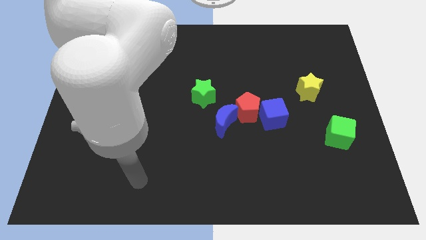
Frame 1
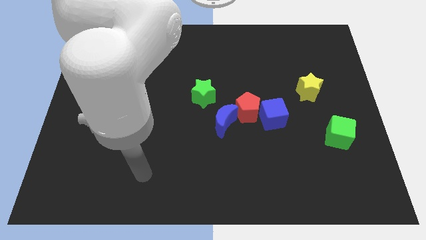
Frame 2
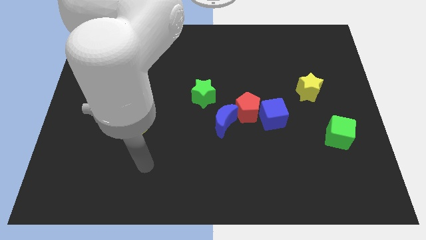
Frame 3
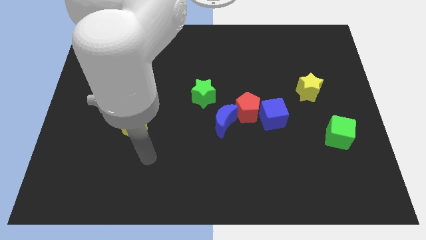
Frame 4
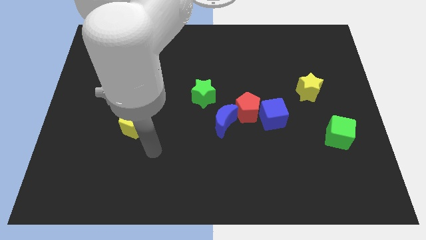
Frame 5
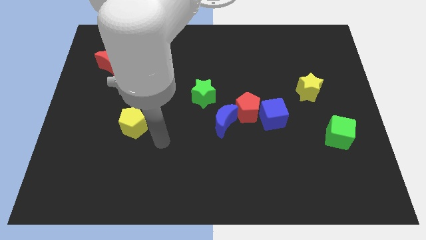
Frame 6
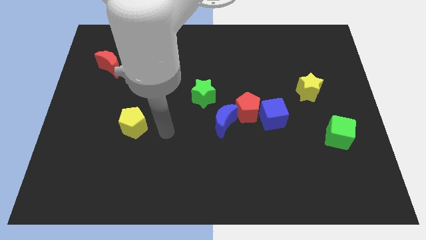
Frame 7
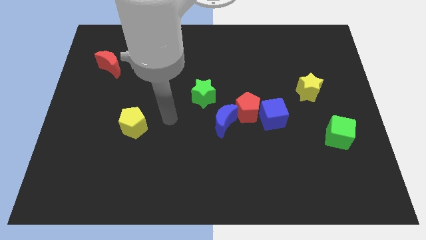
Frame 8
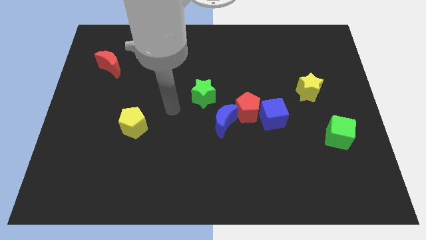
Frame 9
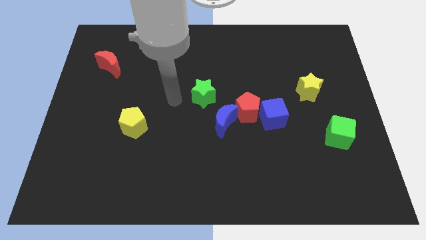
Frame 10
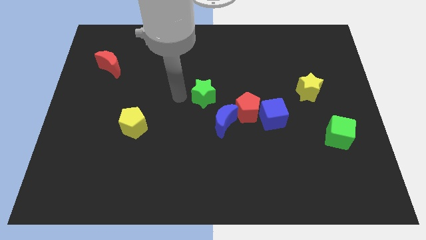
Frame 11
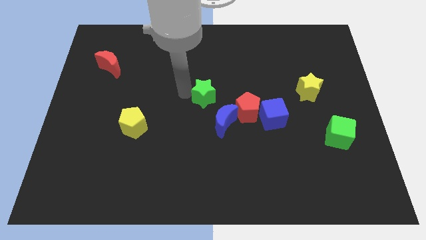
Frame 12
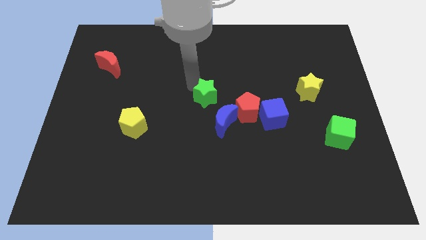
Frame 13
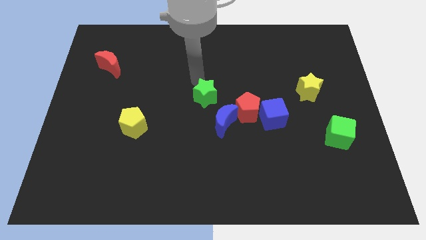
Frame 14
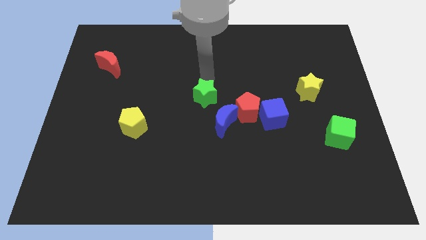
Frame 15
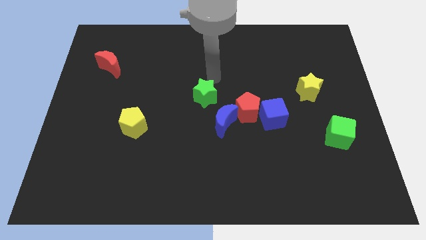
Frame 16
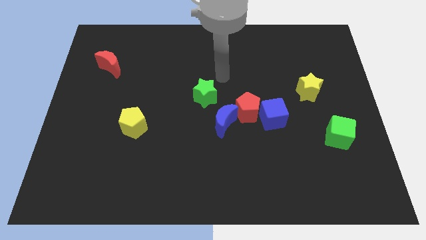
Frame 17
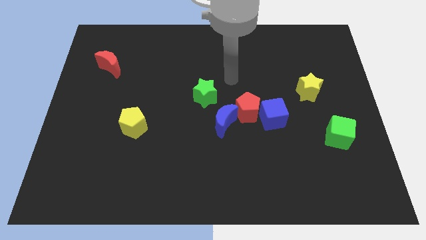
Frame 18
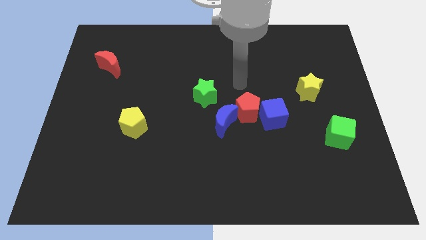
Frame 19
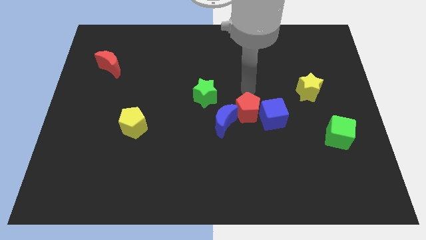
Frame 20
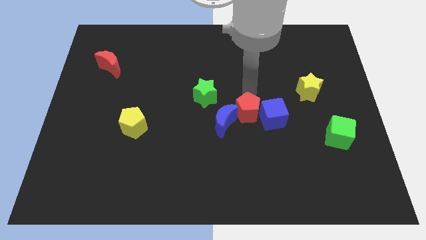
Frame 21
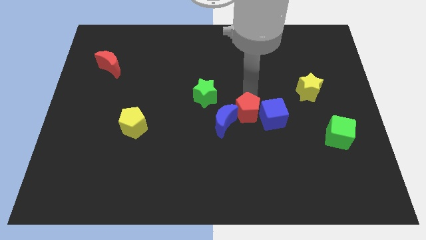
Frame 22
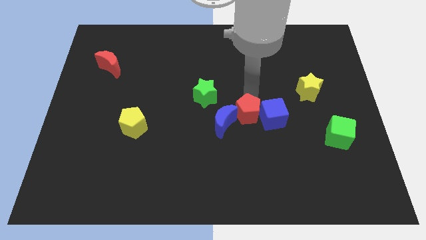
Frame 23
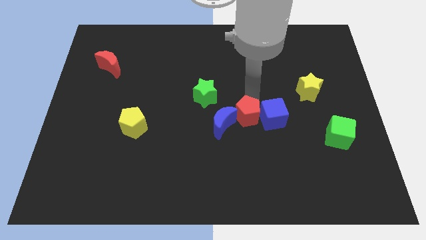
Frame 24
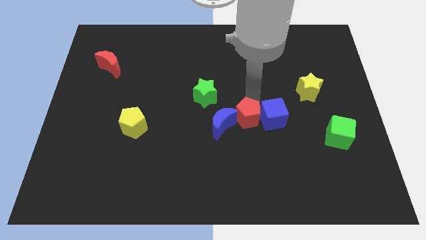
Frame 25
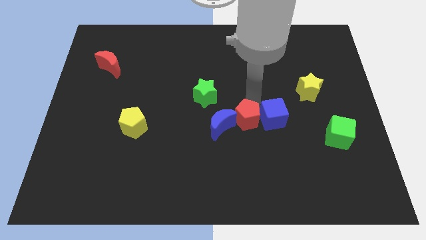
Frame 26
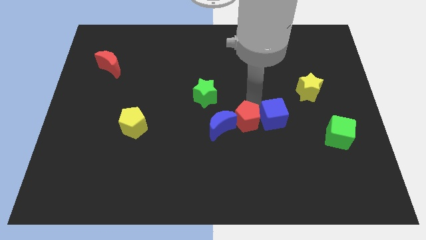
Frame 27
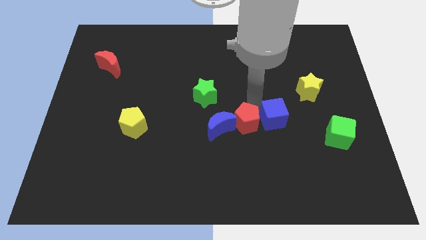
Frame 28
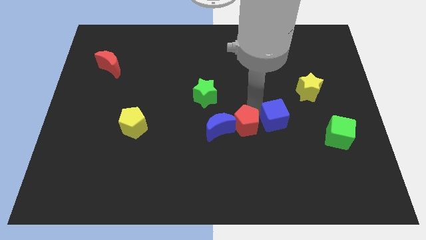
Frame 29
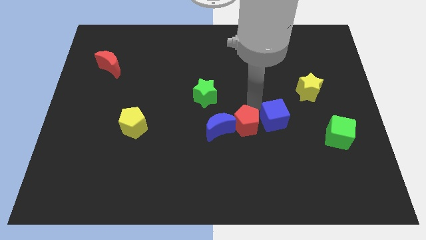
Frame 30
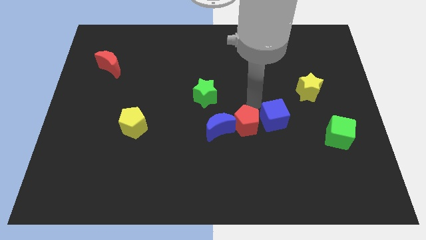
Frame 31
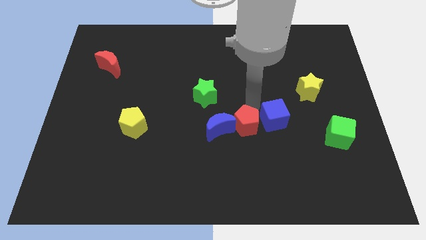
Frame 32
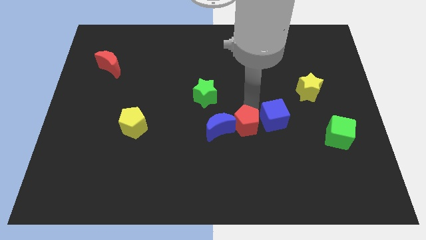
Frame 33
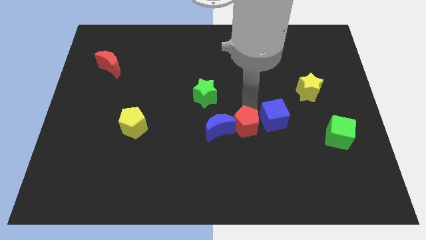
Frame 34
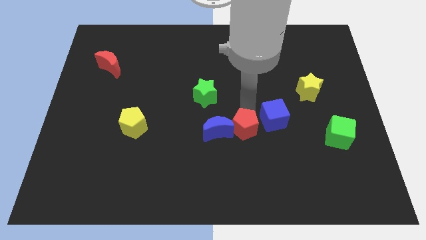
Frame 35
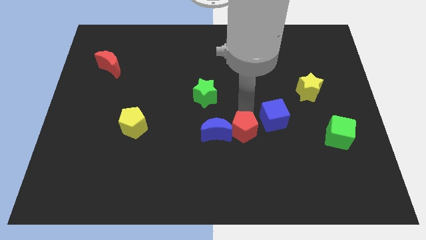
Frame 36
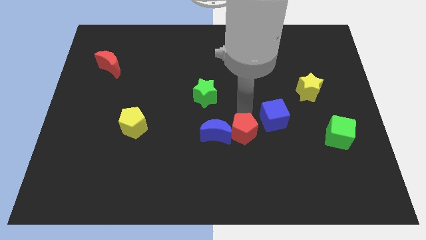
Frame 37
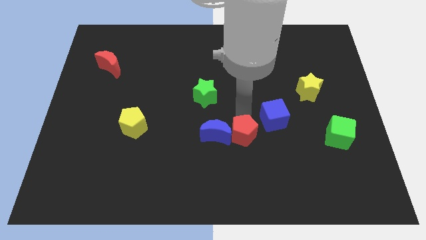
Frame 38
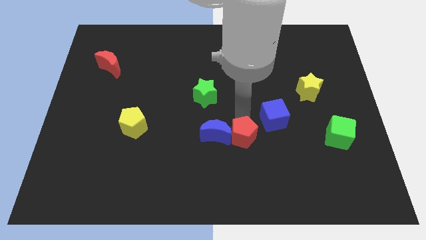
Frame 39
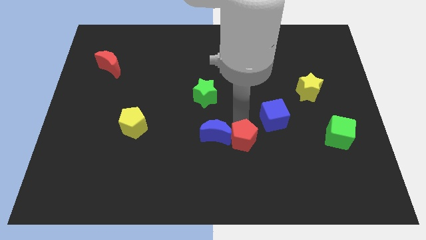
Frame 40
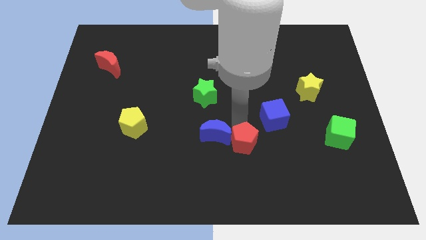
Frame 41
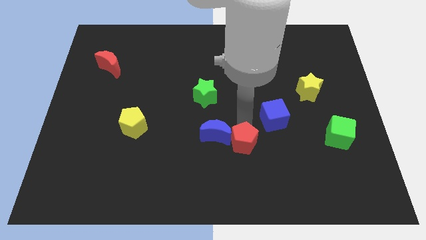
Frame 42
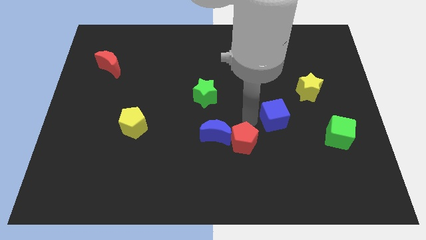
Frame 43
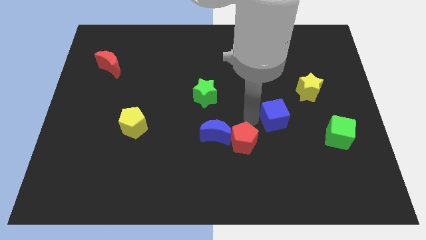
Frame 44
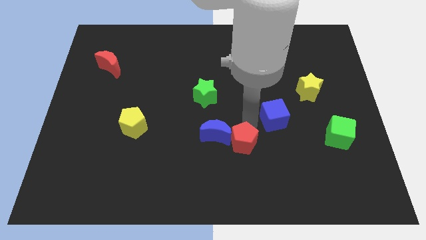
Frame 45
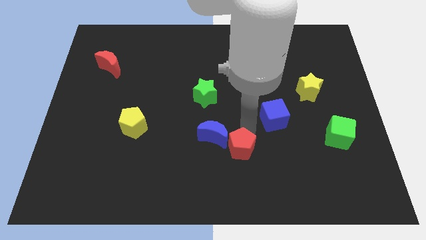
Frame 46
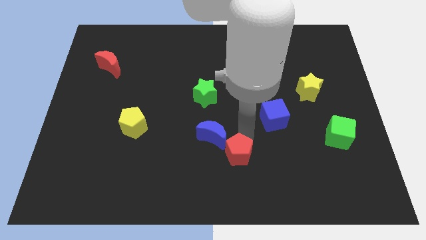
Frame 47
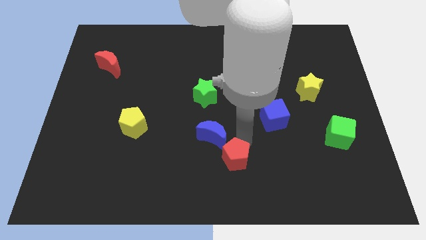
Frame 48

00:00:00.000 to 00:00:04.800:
move the red pentagon to the bottom

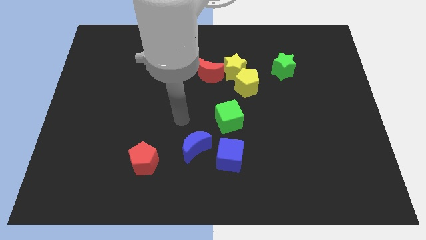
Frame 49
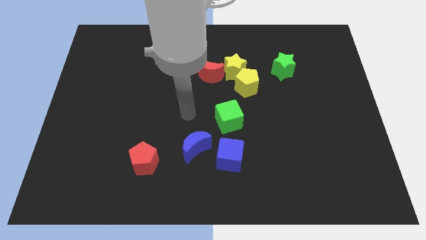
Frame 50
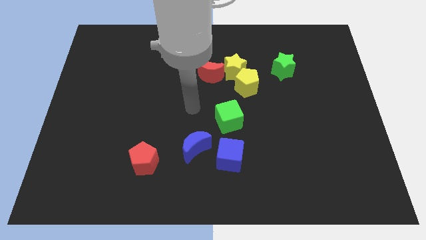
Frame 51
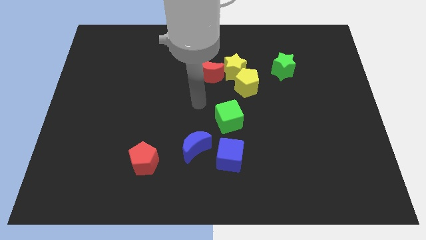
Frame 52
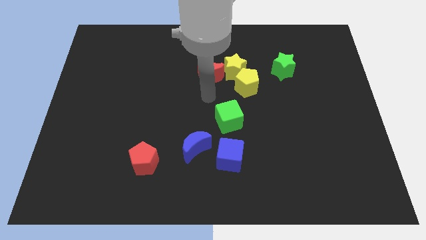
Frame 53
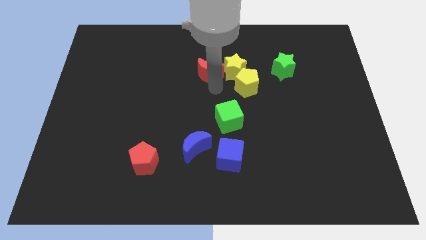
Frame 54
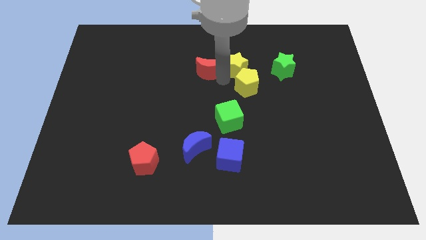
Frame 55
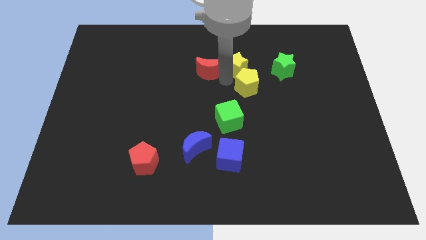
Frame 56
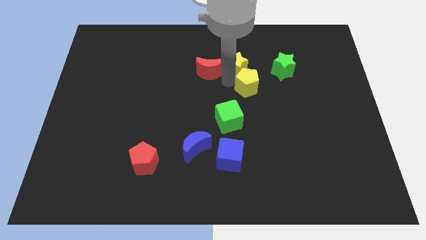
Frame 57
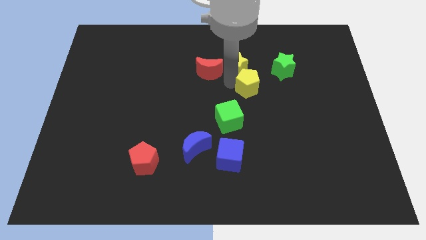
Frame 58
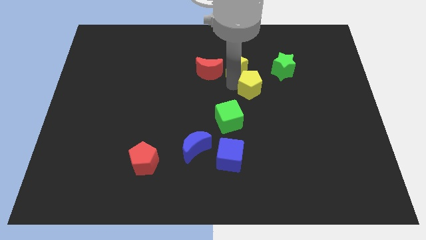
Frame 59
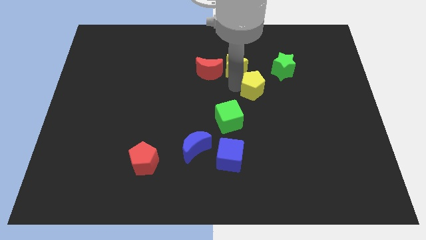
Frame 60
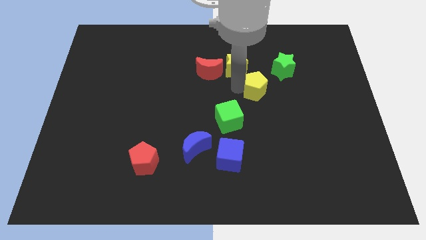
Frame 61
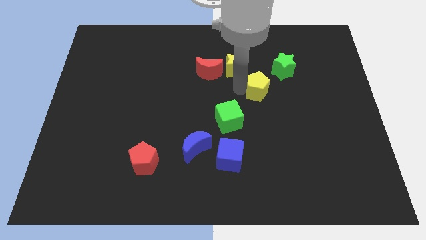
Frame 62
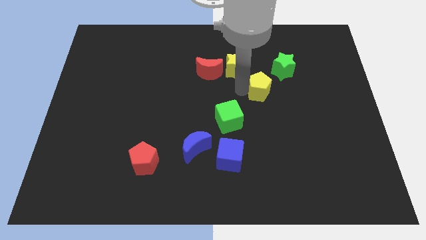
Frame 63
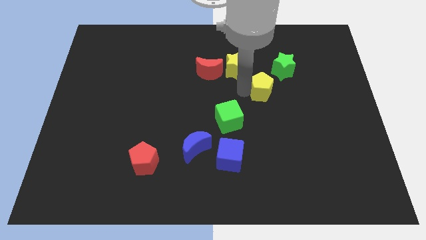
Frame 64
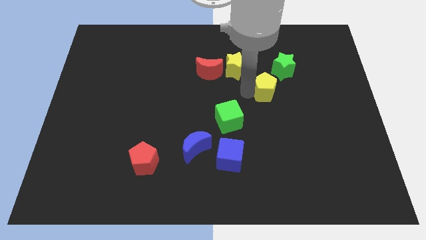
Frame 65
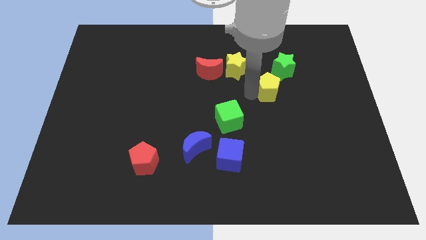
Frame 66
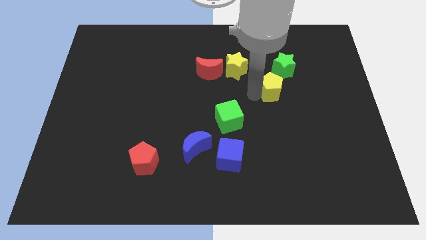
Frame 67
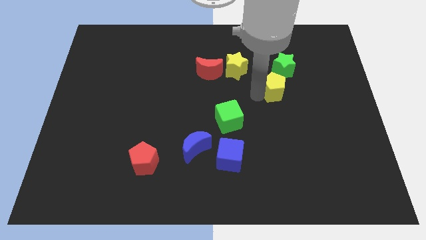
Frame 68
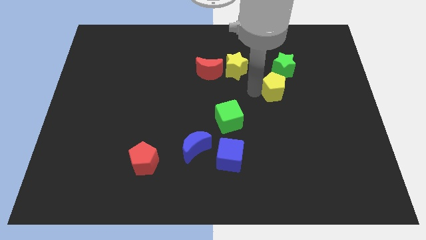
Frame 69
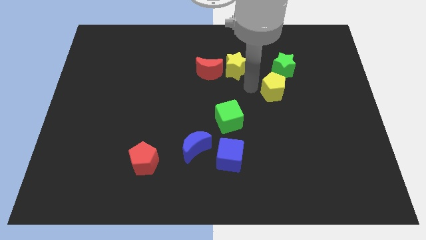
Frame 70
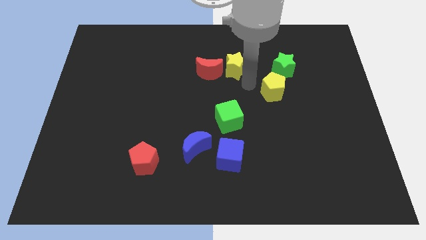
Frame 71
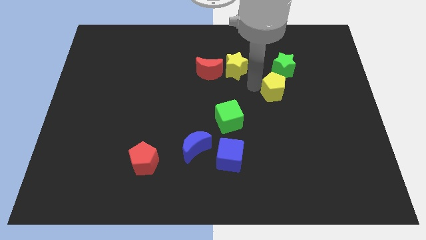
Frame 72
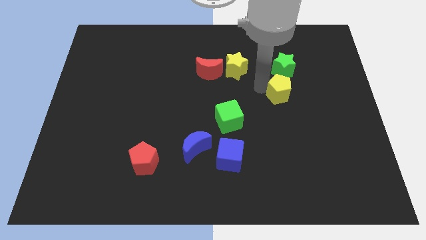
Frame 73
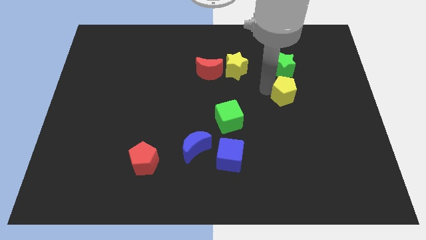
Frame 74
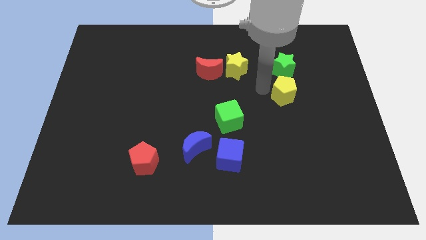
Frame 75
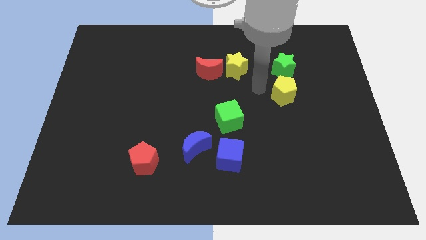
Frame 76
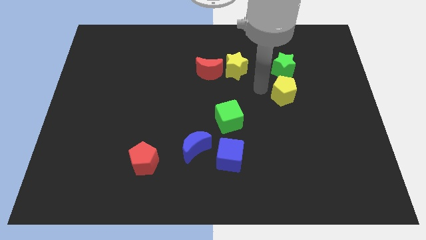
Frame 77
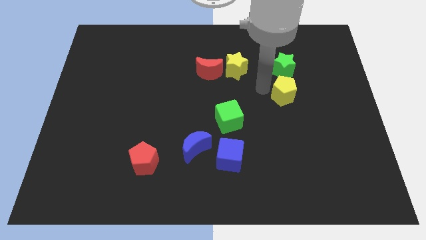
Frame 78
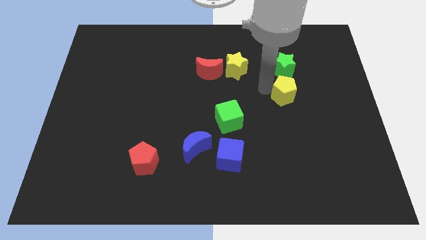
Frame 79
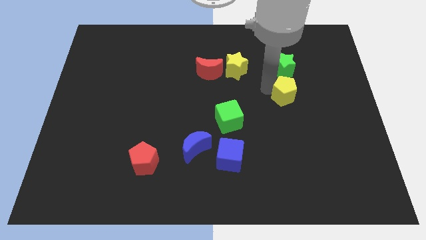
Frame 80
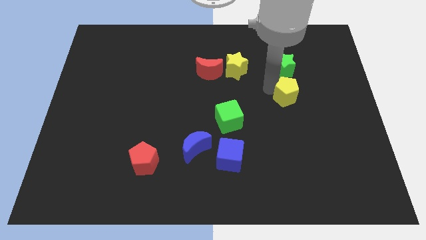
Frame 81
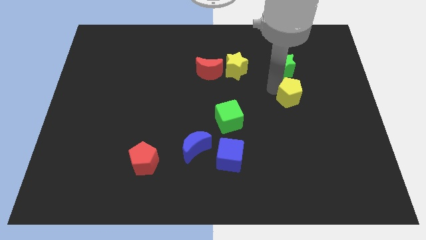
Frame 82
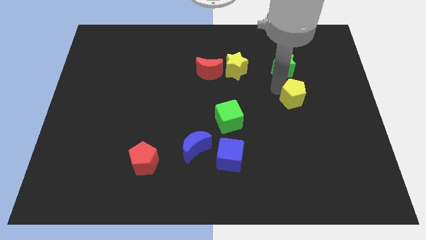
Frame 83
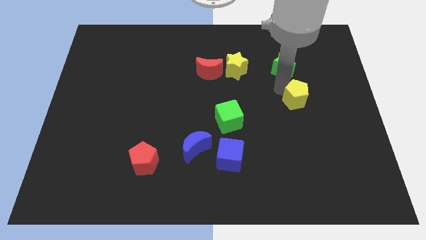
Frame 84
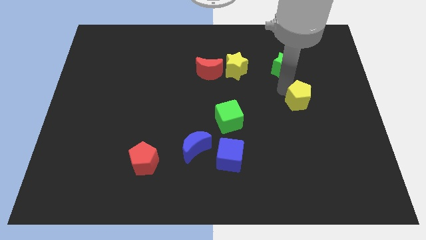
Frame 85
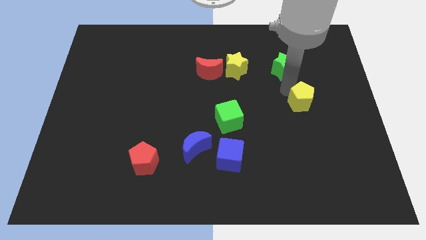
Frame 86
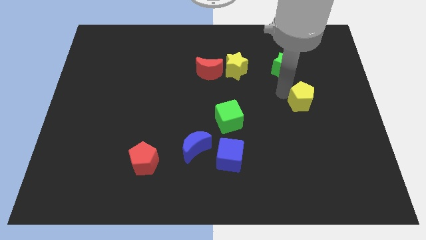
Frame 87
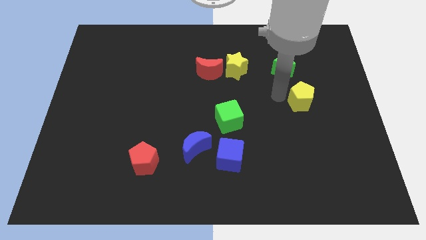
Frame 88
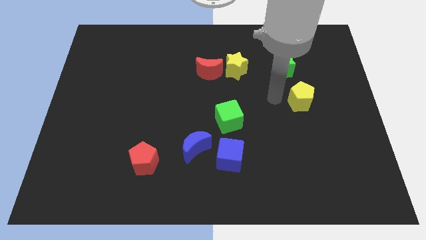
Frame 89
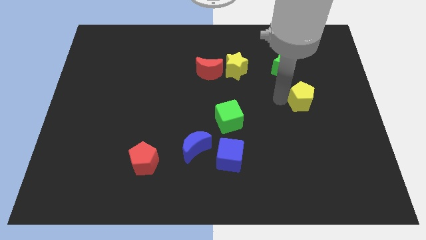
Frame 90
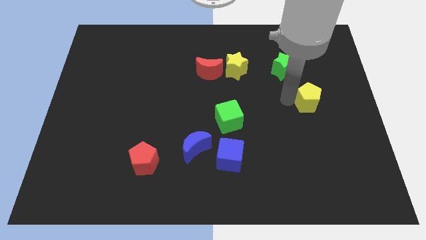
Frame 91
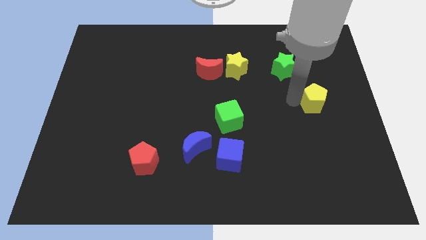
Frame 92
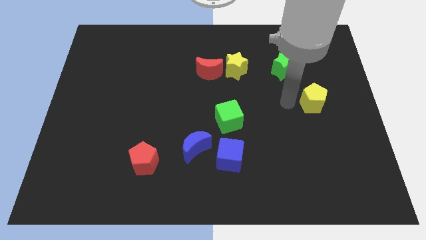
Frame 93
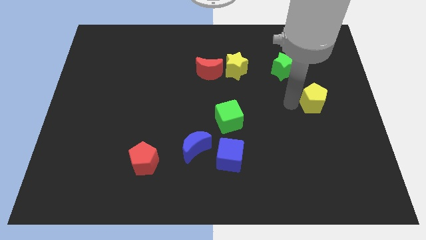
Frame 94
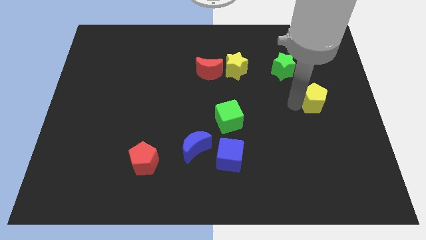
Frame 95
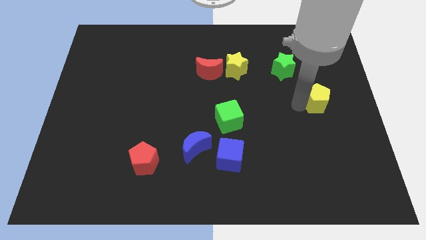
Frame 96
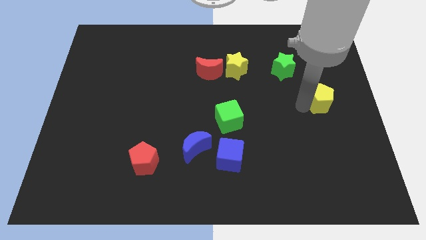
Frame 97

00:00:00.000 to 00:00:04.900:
slide the yellow pentagon to the right side of the board
